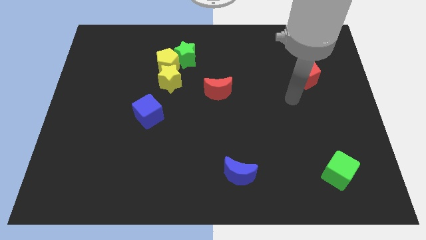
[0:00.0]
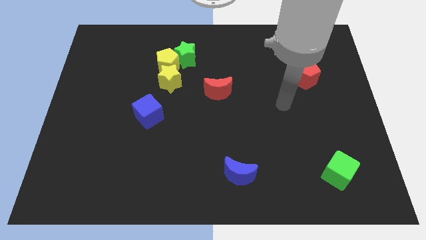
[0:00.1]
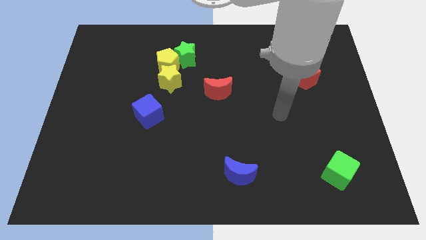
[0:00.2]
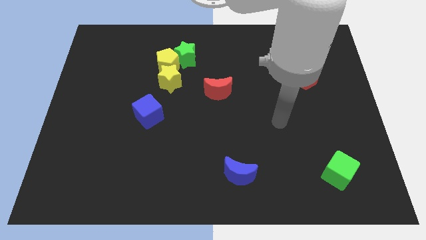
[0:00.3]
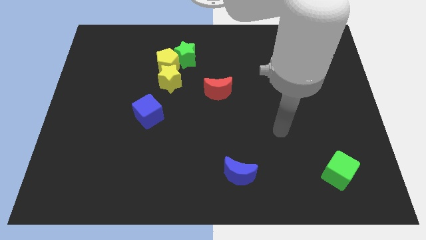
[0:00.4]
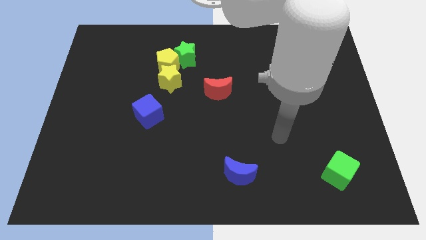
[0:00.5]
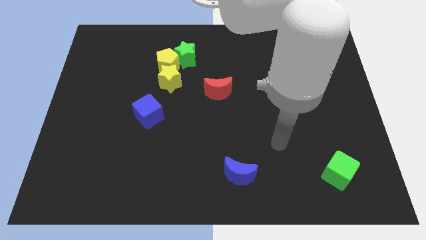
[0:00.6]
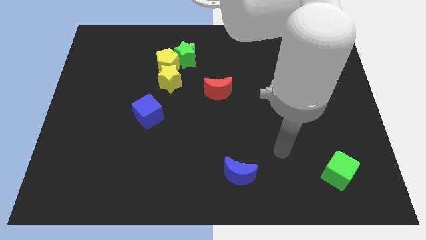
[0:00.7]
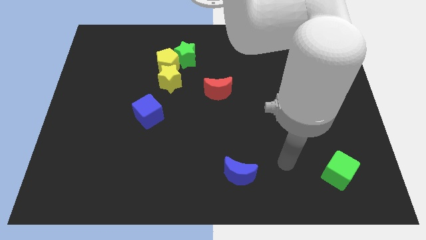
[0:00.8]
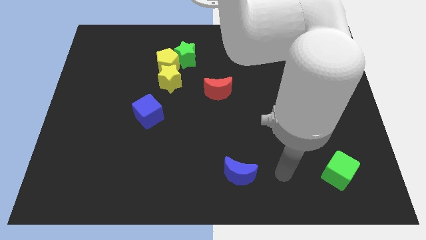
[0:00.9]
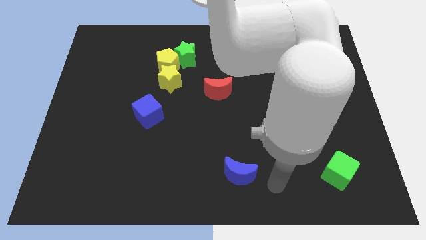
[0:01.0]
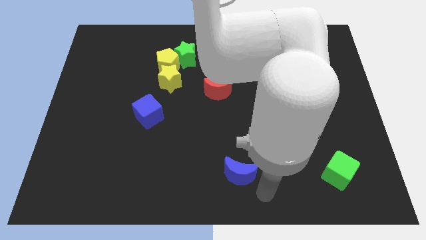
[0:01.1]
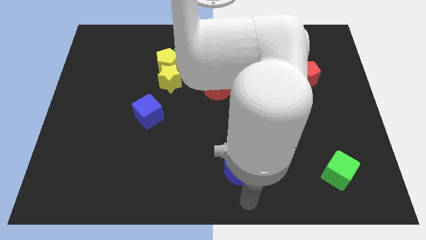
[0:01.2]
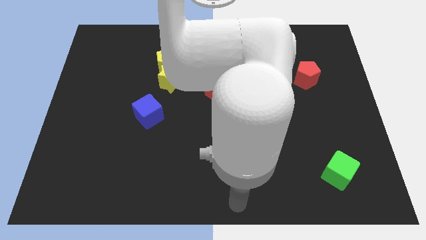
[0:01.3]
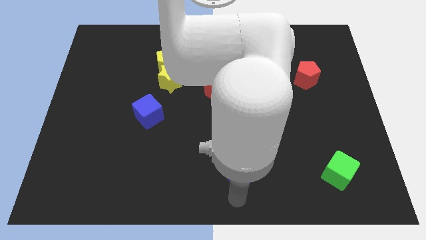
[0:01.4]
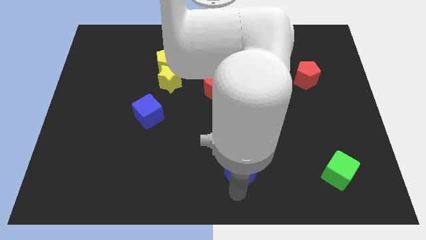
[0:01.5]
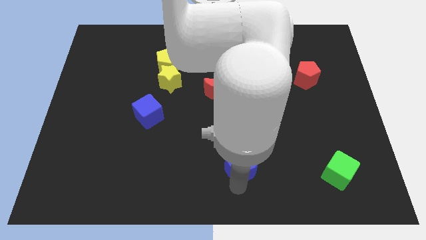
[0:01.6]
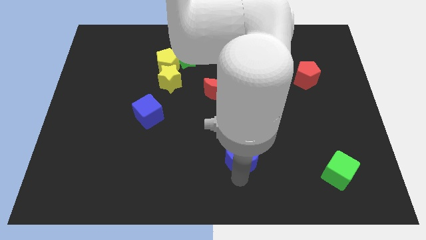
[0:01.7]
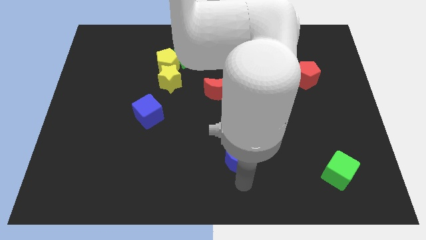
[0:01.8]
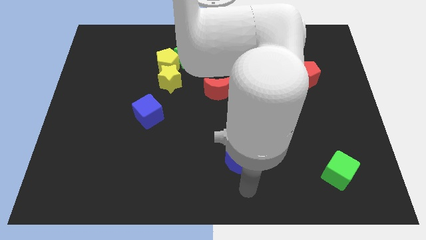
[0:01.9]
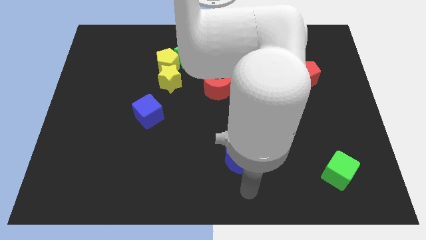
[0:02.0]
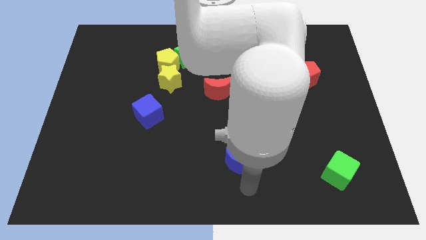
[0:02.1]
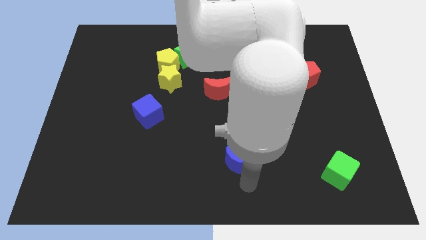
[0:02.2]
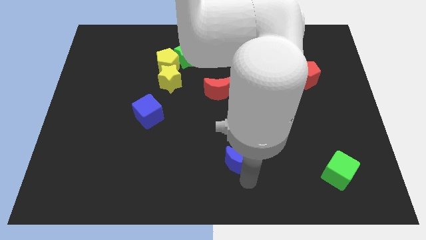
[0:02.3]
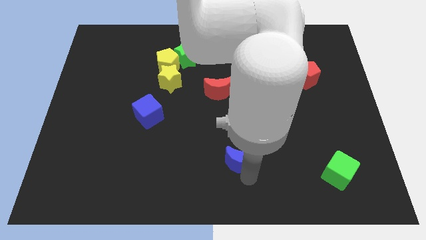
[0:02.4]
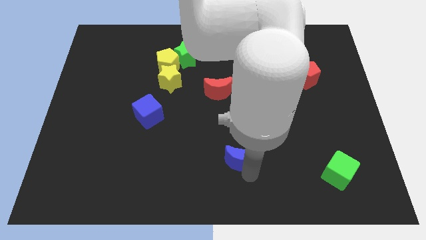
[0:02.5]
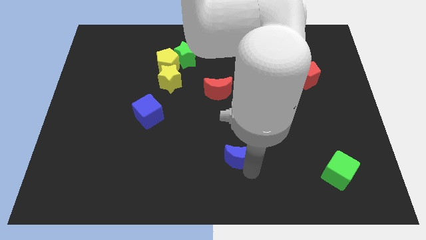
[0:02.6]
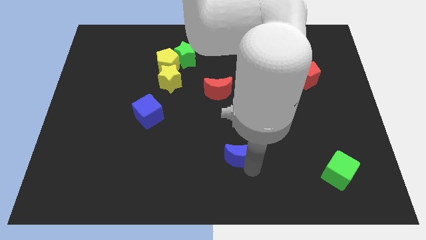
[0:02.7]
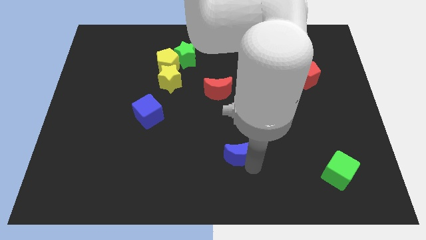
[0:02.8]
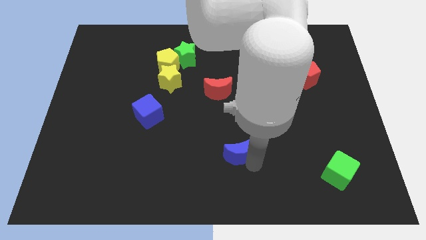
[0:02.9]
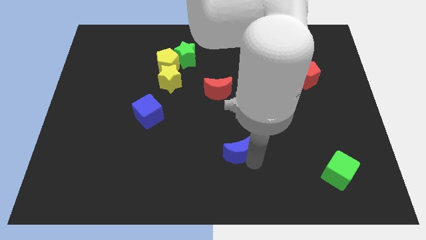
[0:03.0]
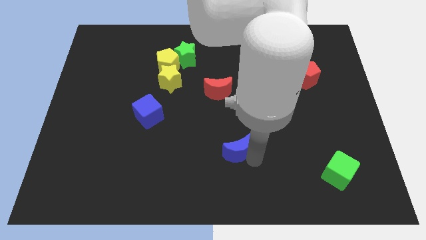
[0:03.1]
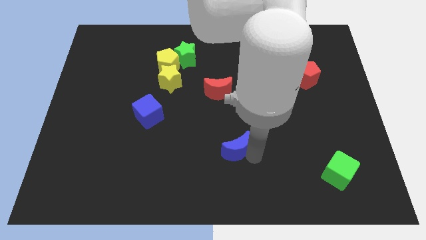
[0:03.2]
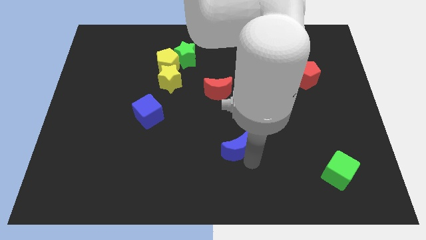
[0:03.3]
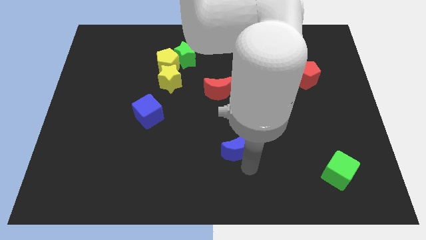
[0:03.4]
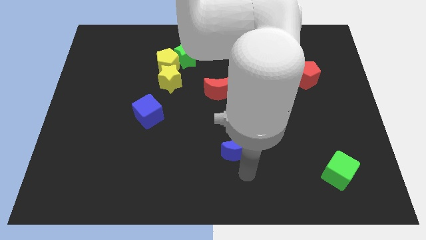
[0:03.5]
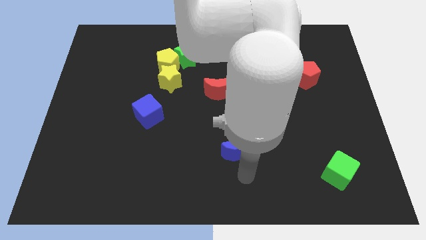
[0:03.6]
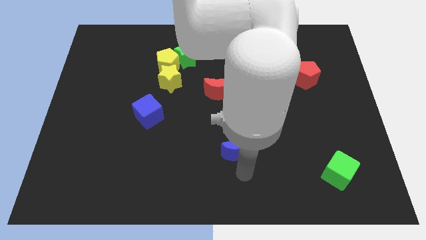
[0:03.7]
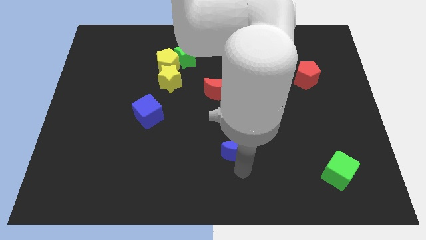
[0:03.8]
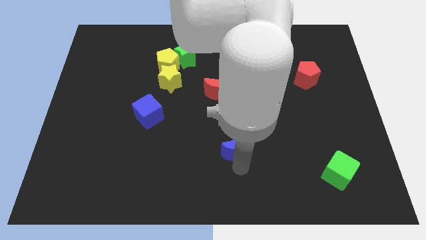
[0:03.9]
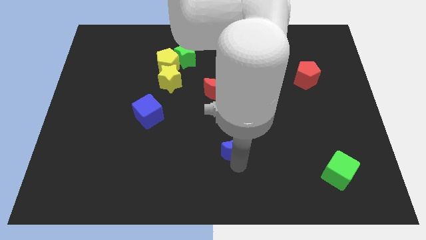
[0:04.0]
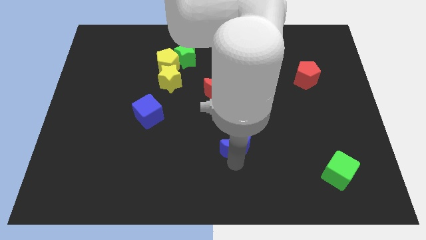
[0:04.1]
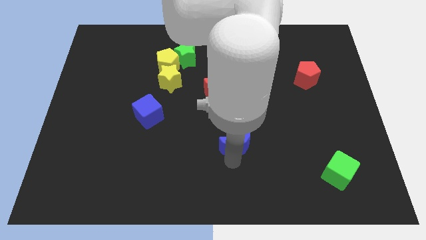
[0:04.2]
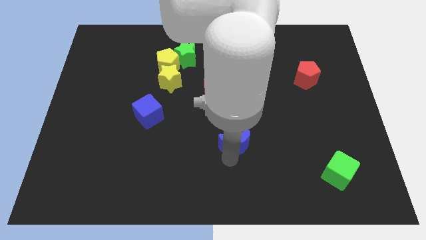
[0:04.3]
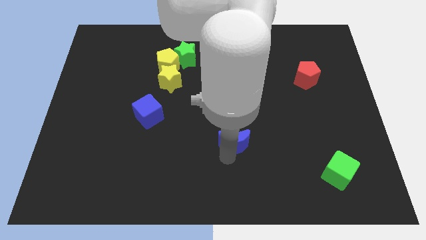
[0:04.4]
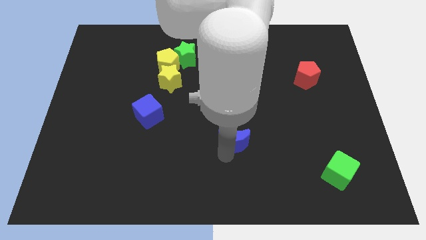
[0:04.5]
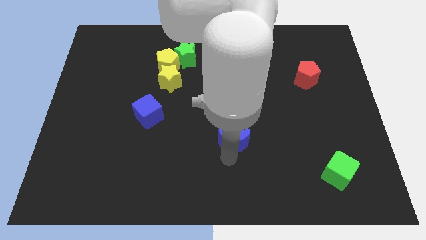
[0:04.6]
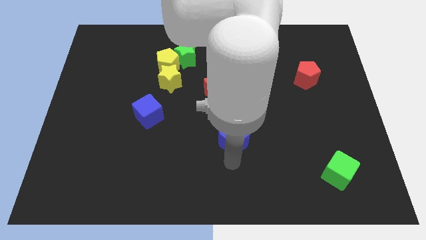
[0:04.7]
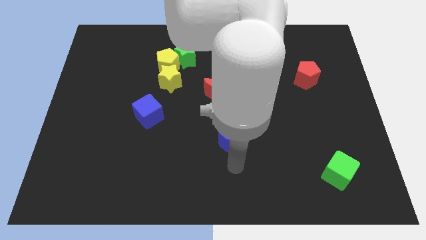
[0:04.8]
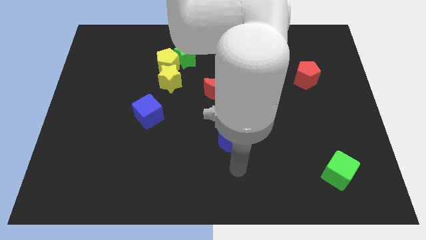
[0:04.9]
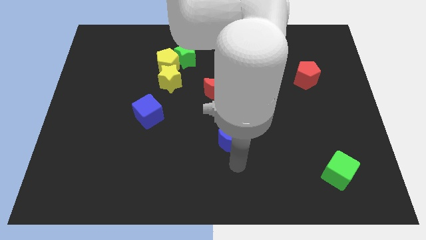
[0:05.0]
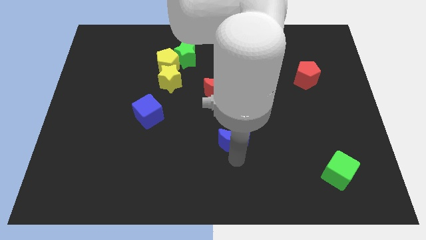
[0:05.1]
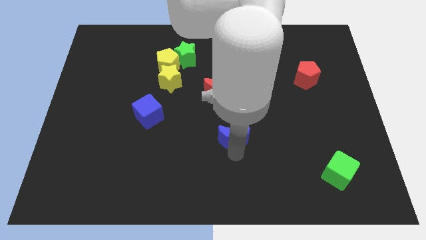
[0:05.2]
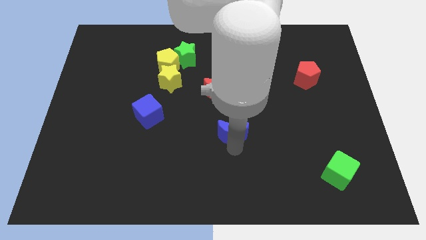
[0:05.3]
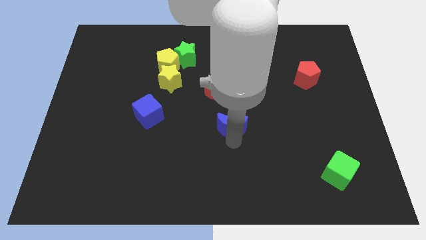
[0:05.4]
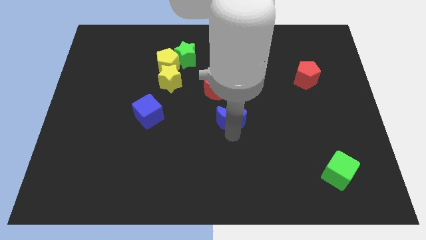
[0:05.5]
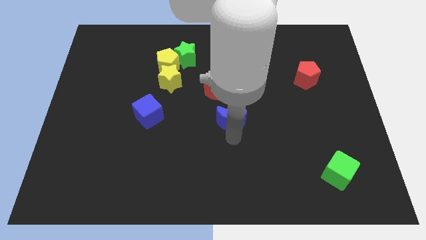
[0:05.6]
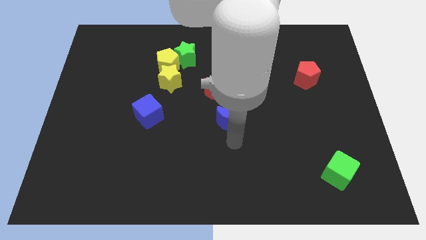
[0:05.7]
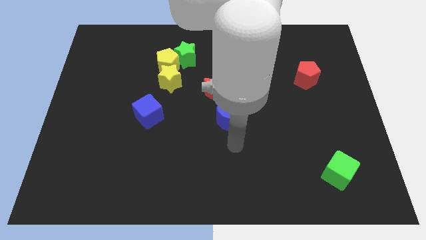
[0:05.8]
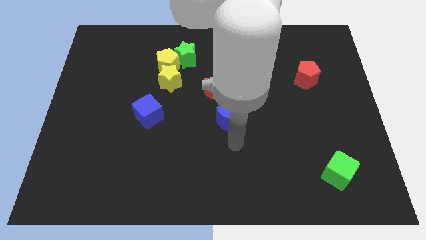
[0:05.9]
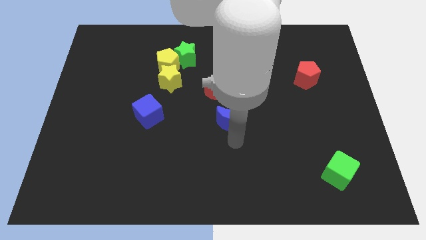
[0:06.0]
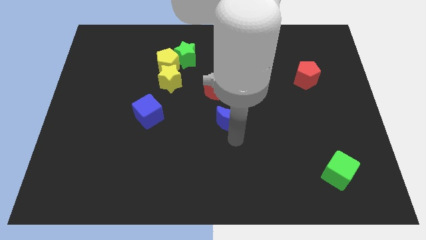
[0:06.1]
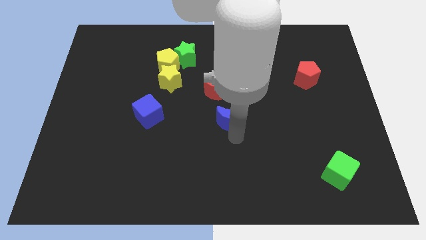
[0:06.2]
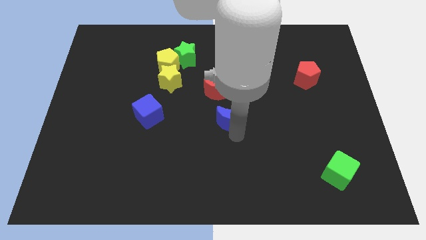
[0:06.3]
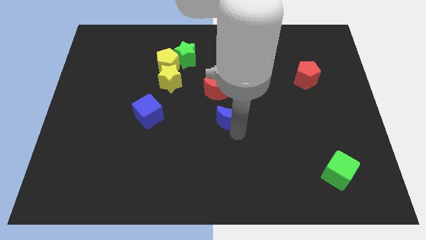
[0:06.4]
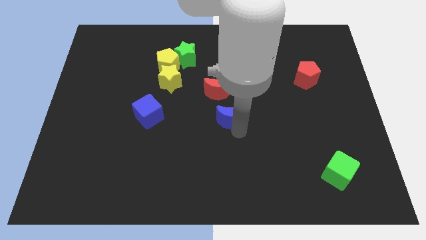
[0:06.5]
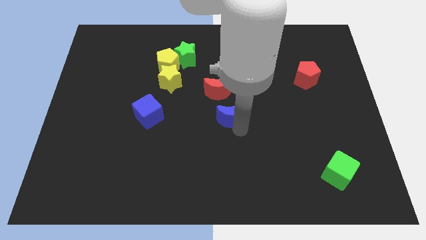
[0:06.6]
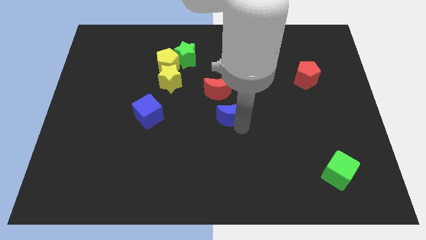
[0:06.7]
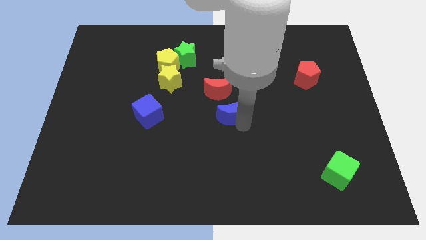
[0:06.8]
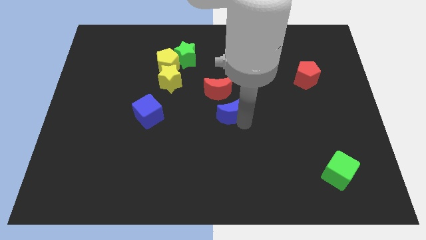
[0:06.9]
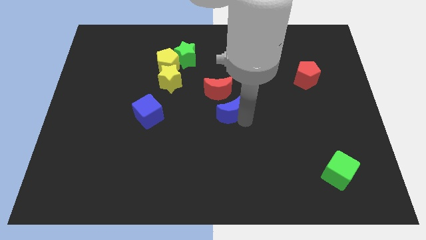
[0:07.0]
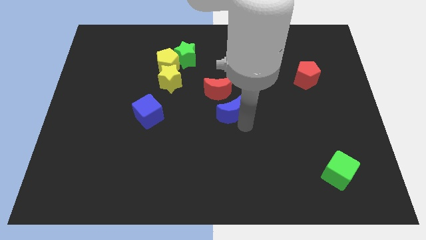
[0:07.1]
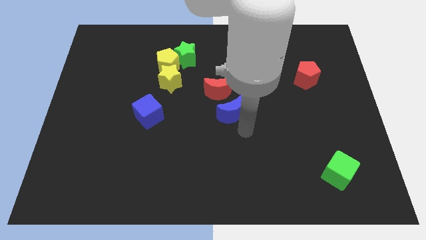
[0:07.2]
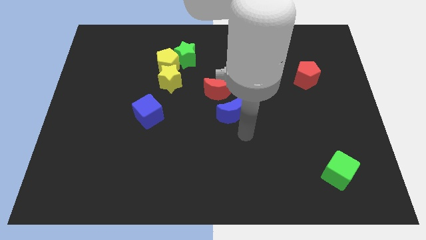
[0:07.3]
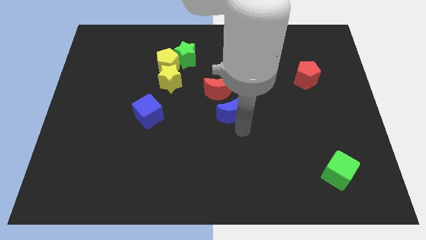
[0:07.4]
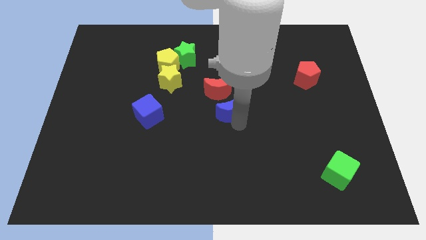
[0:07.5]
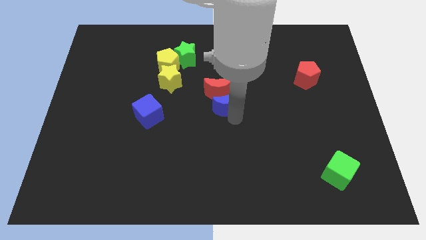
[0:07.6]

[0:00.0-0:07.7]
move the blue moon towards the red moon
